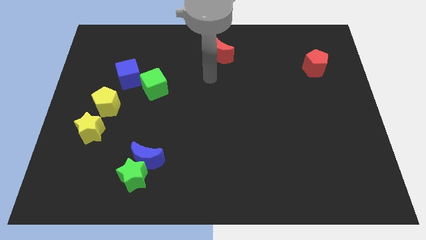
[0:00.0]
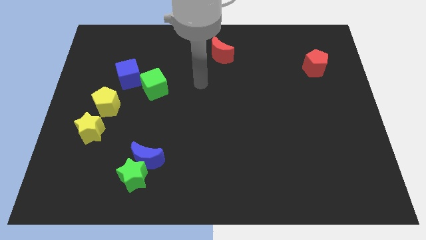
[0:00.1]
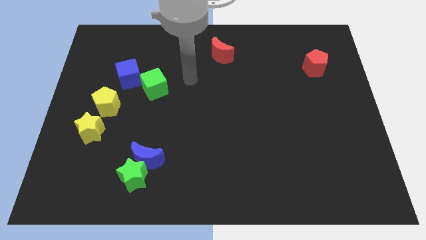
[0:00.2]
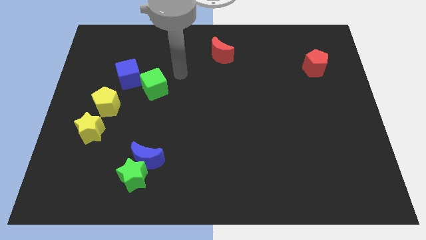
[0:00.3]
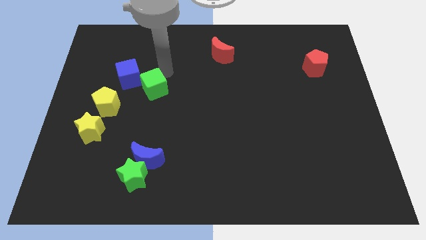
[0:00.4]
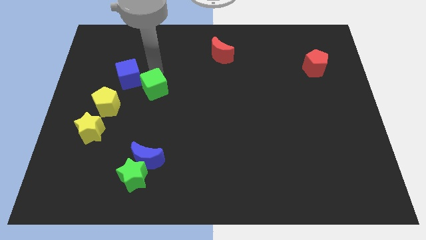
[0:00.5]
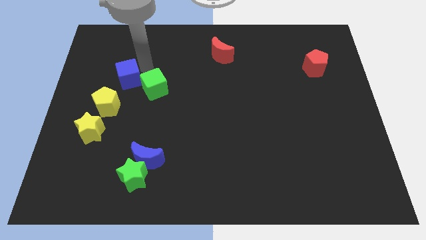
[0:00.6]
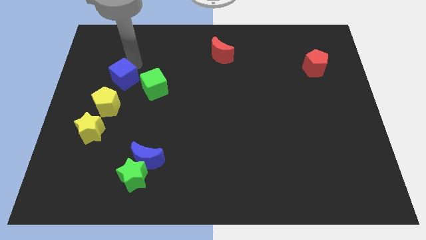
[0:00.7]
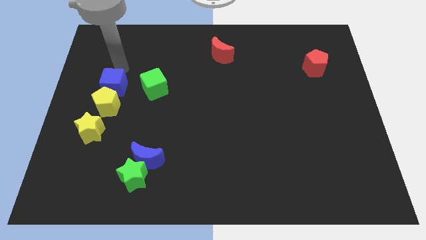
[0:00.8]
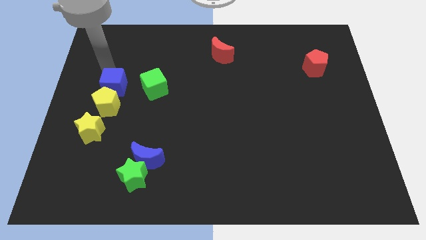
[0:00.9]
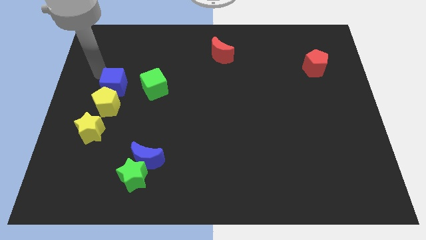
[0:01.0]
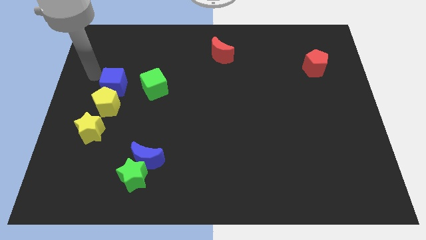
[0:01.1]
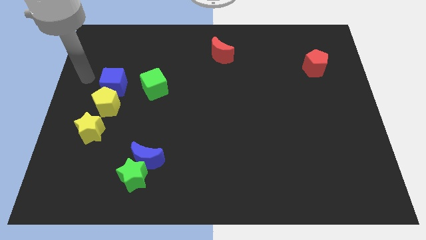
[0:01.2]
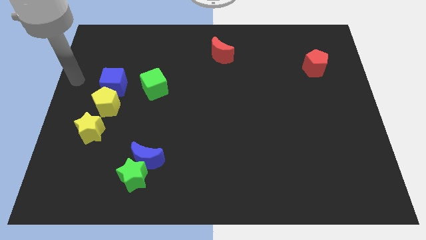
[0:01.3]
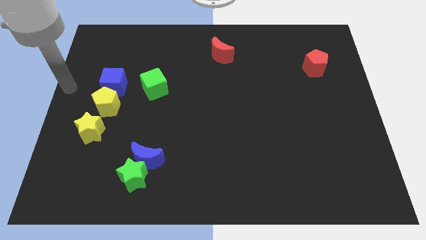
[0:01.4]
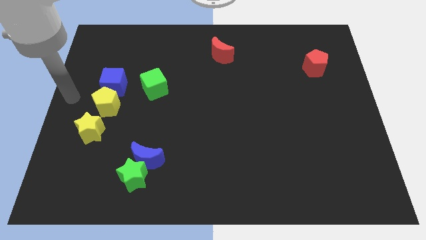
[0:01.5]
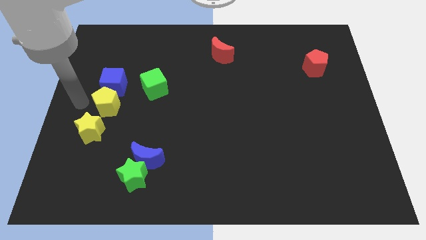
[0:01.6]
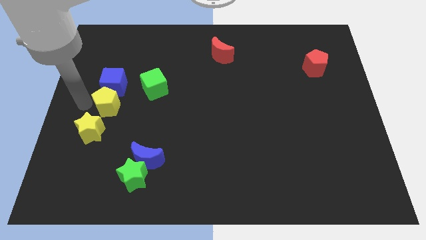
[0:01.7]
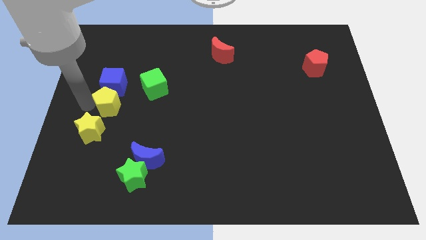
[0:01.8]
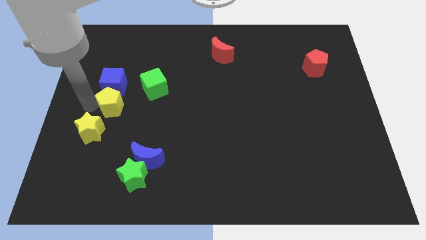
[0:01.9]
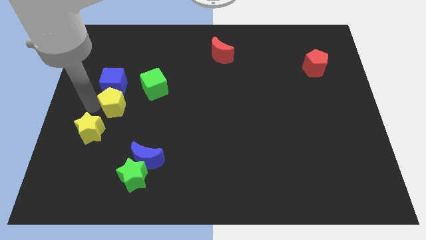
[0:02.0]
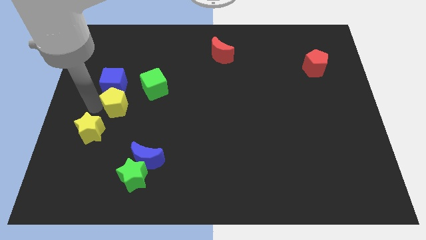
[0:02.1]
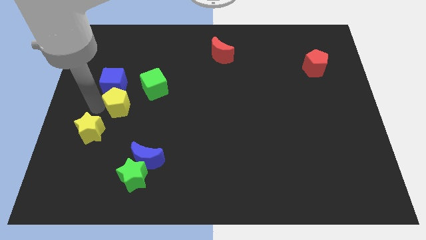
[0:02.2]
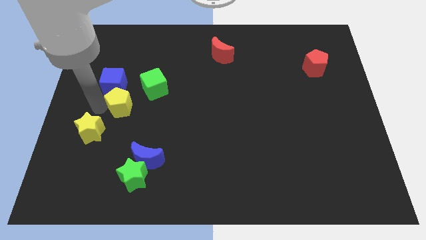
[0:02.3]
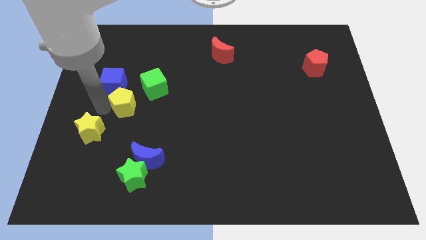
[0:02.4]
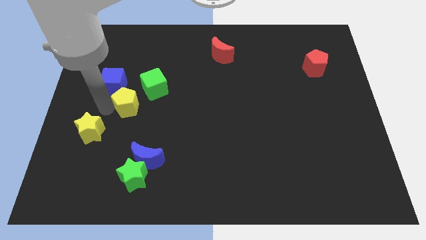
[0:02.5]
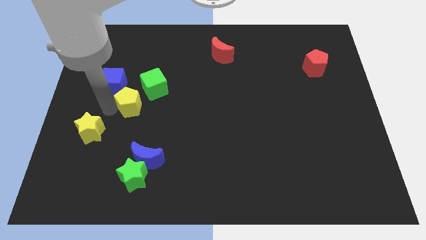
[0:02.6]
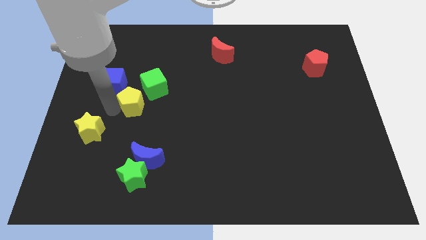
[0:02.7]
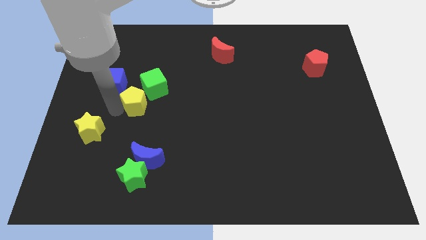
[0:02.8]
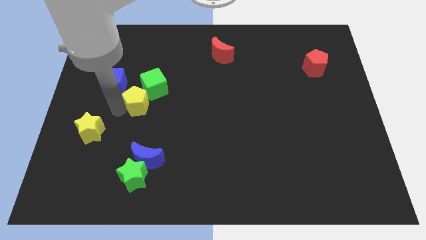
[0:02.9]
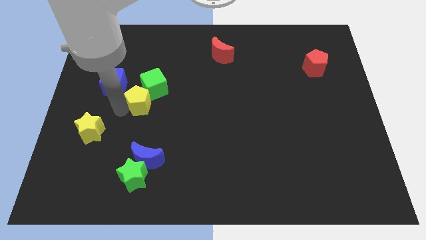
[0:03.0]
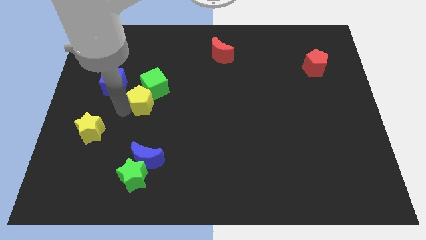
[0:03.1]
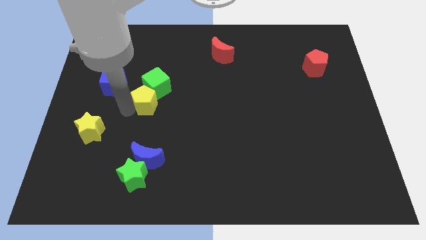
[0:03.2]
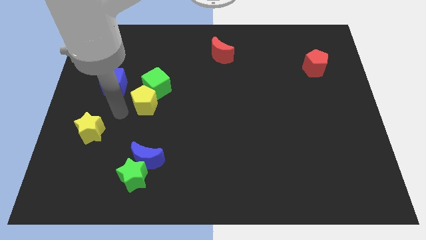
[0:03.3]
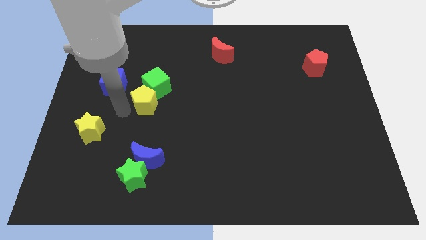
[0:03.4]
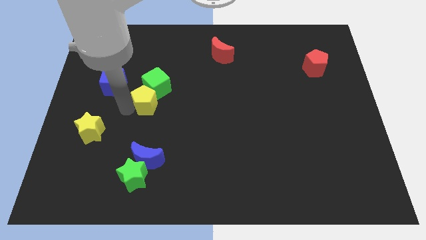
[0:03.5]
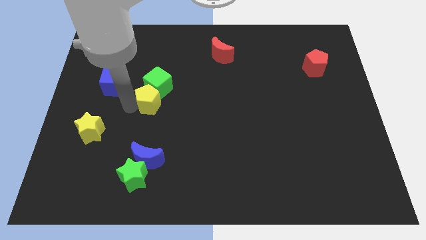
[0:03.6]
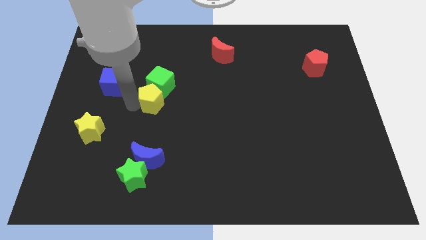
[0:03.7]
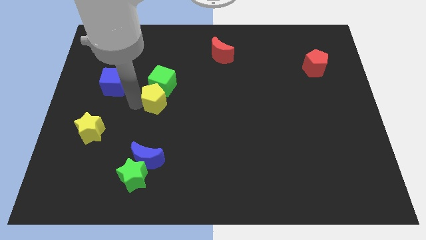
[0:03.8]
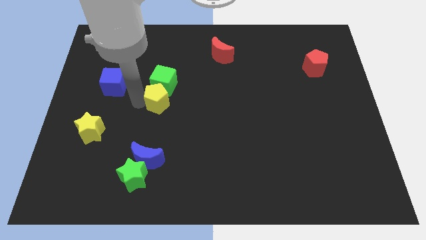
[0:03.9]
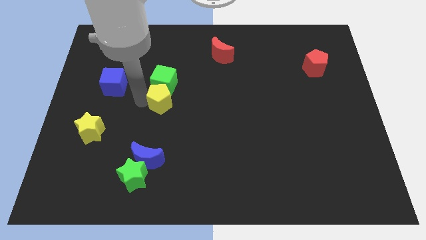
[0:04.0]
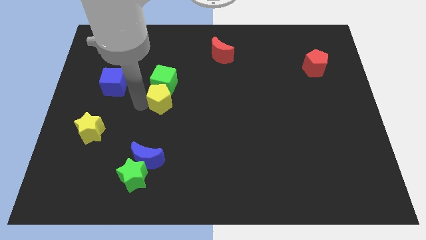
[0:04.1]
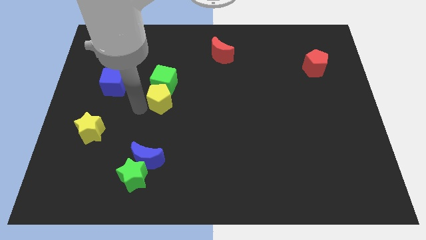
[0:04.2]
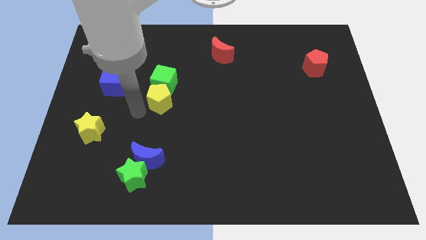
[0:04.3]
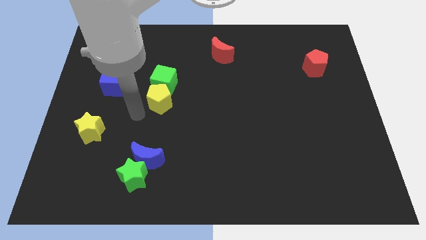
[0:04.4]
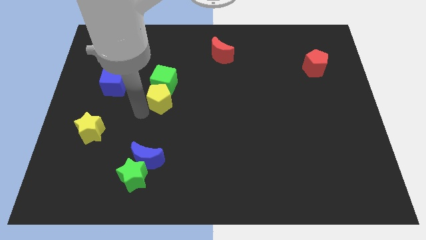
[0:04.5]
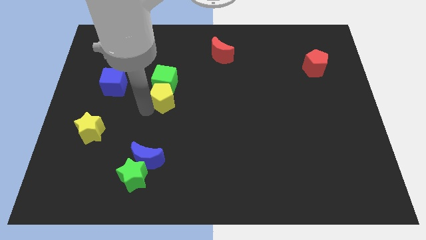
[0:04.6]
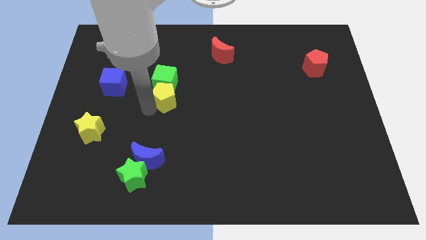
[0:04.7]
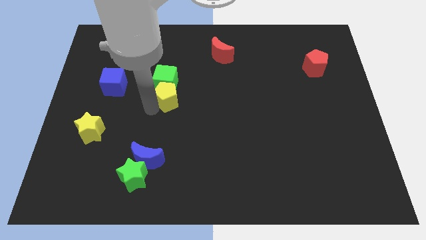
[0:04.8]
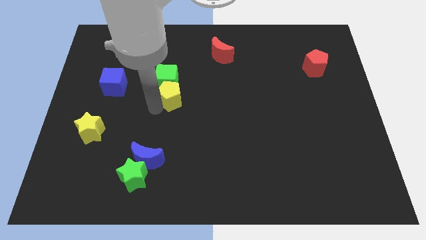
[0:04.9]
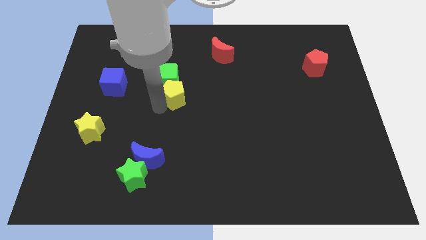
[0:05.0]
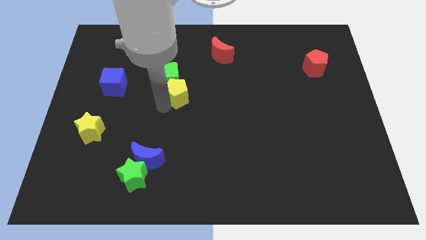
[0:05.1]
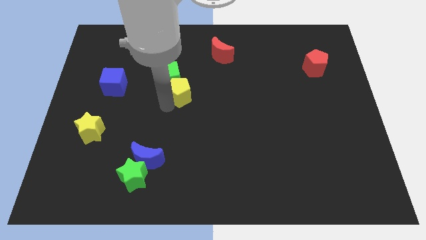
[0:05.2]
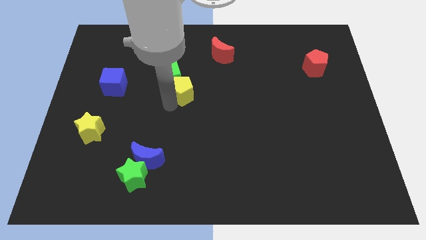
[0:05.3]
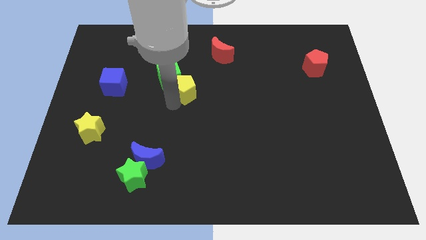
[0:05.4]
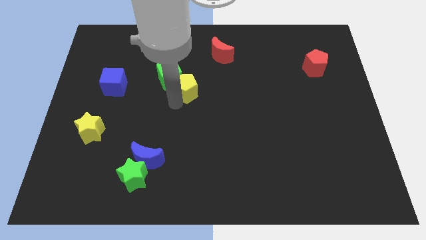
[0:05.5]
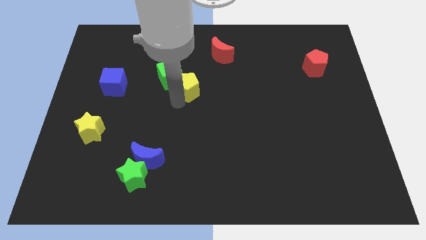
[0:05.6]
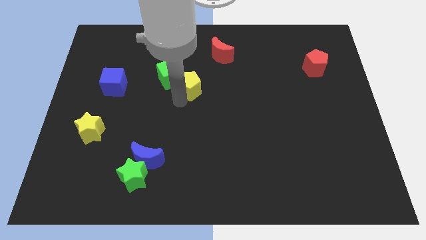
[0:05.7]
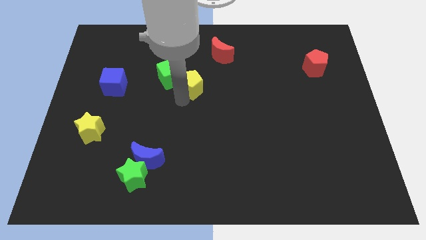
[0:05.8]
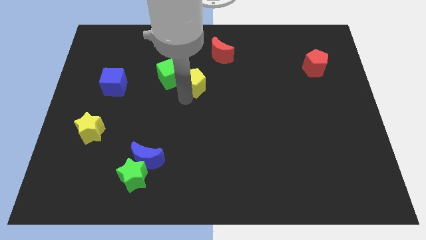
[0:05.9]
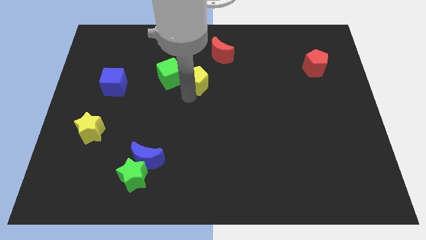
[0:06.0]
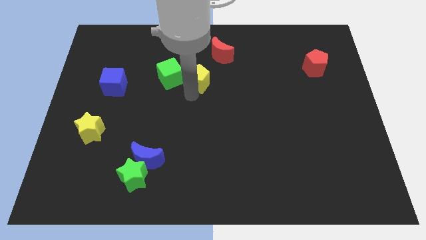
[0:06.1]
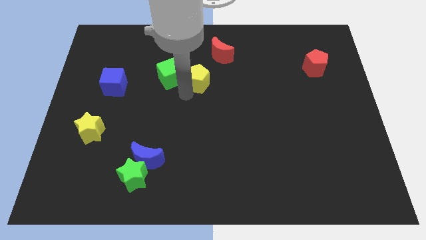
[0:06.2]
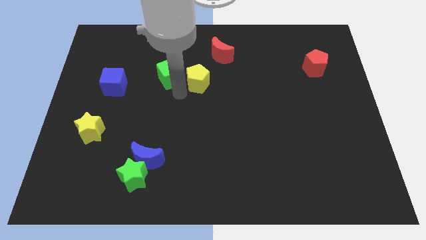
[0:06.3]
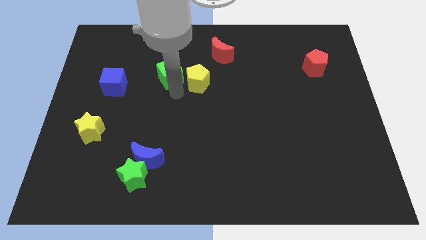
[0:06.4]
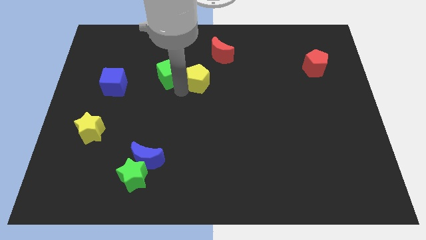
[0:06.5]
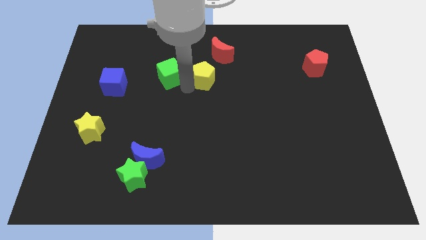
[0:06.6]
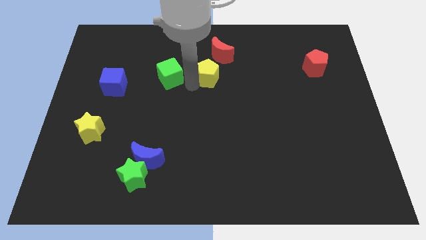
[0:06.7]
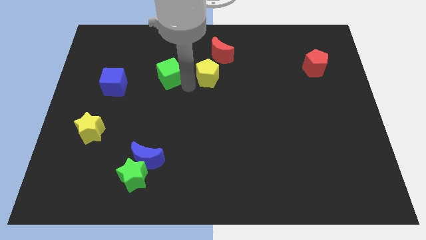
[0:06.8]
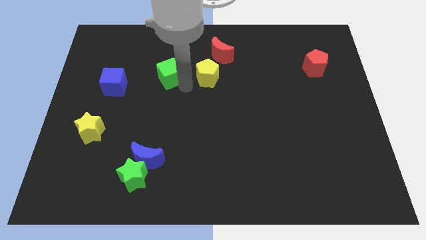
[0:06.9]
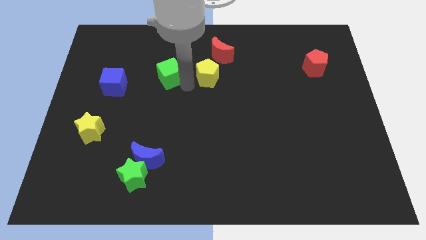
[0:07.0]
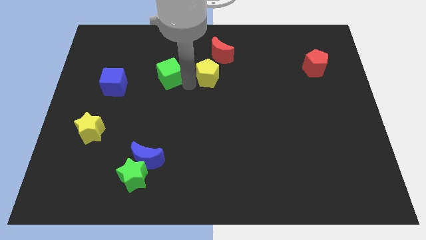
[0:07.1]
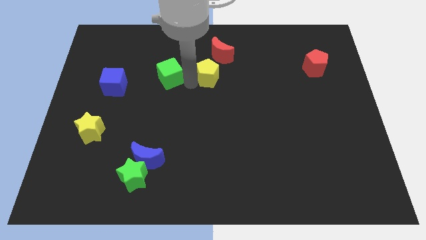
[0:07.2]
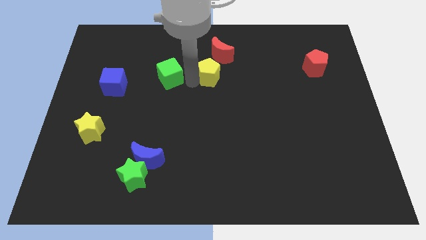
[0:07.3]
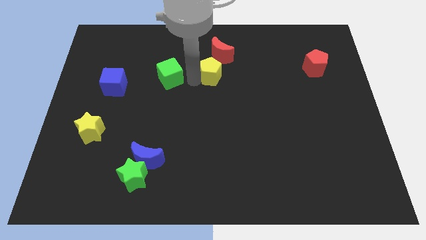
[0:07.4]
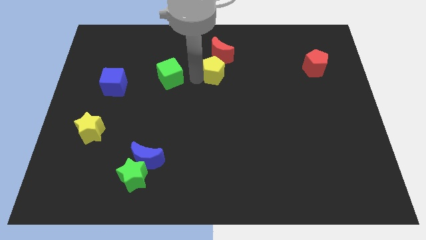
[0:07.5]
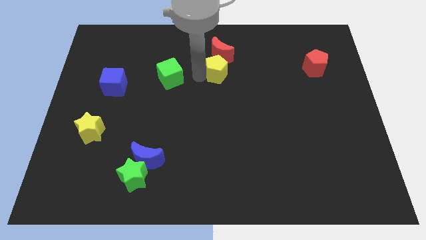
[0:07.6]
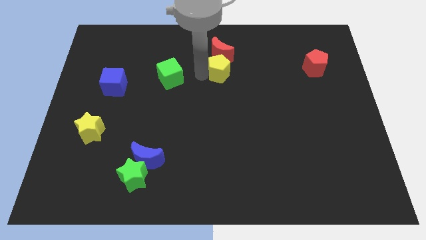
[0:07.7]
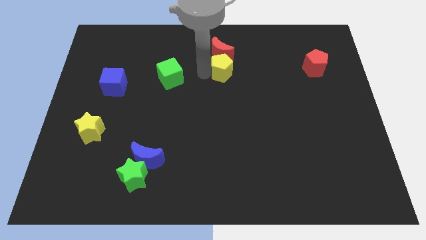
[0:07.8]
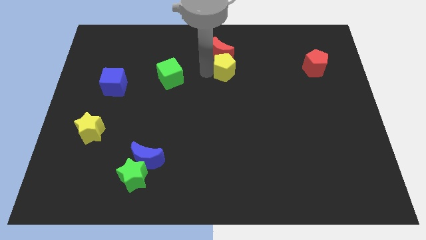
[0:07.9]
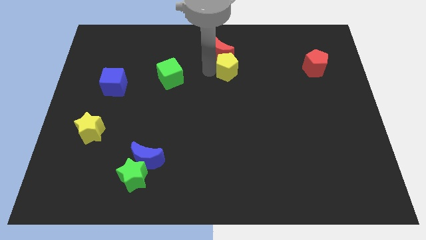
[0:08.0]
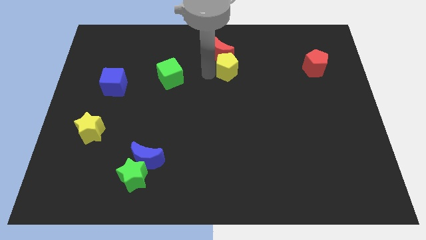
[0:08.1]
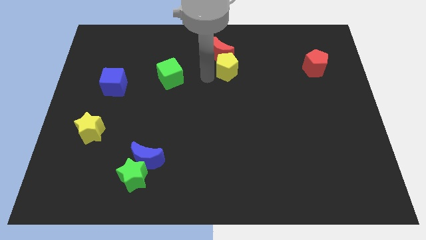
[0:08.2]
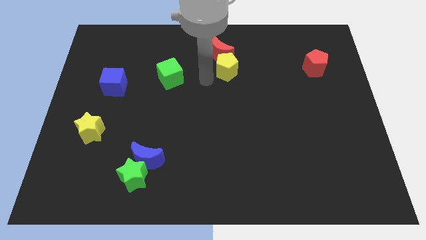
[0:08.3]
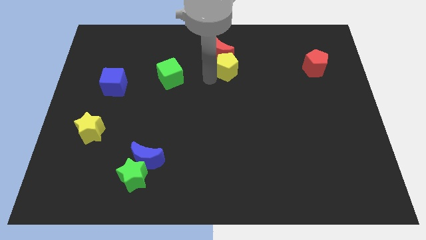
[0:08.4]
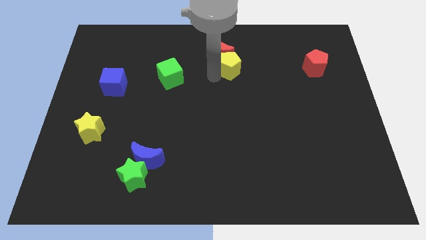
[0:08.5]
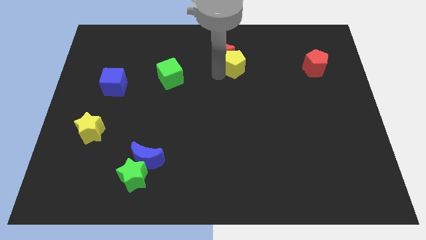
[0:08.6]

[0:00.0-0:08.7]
push the yellow pentagon just right of the red moon
